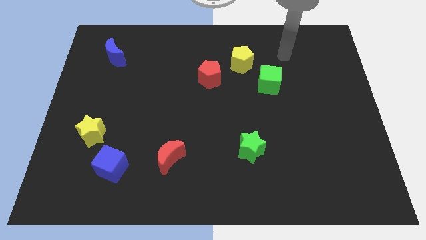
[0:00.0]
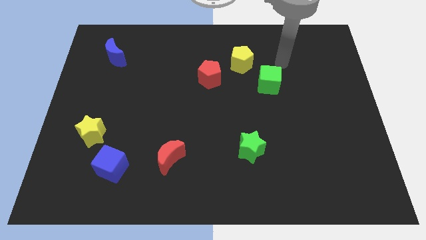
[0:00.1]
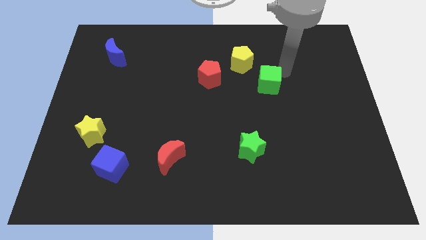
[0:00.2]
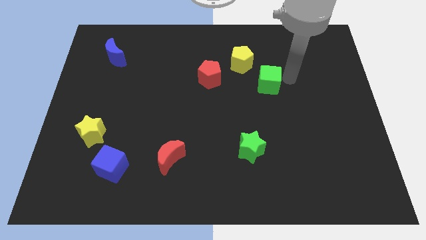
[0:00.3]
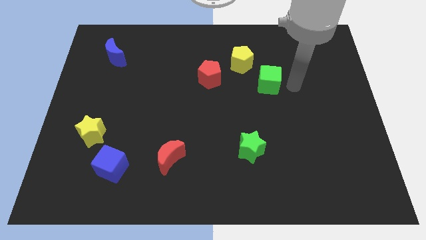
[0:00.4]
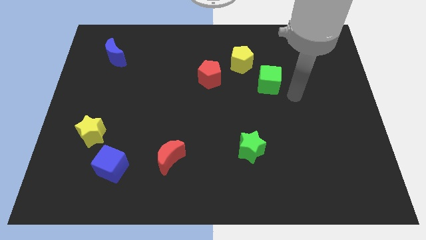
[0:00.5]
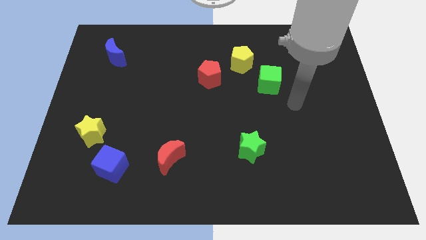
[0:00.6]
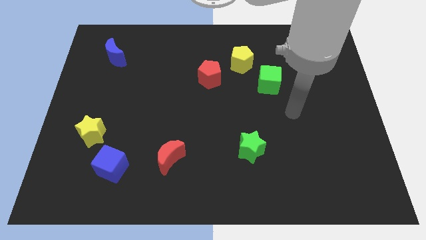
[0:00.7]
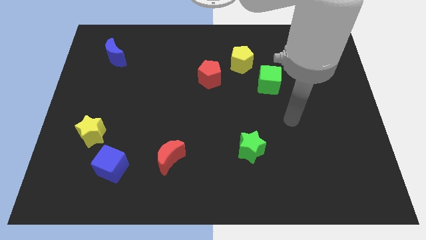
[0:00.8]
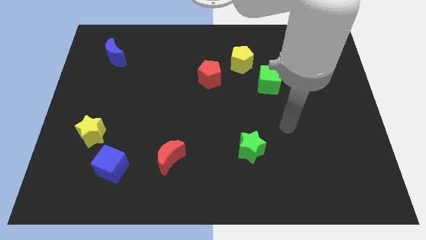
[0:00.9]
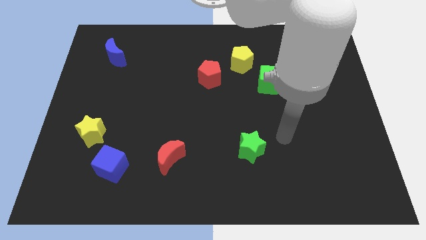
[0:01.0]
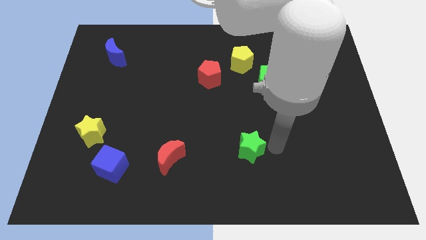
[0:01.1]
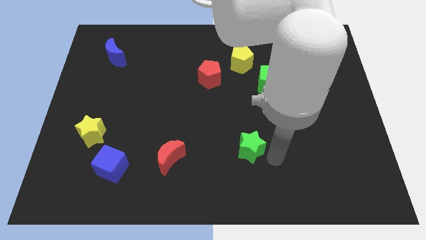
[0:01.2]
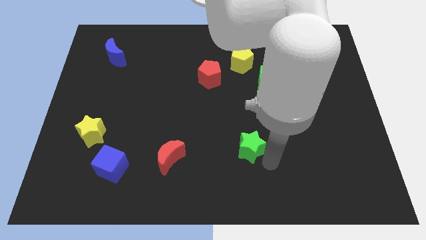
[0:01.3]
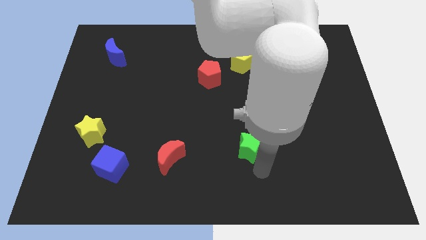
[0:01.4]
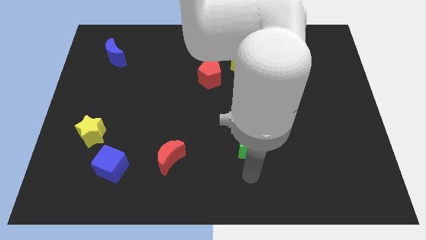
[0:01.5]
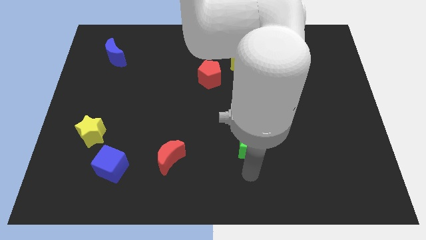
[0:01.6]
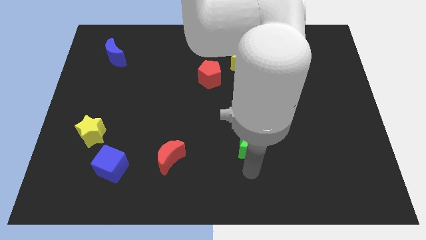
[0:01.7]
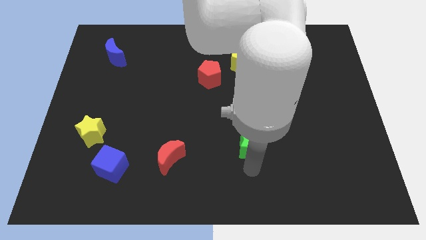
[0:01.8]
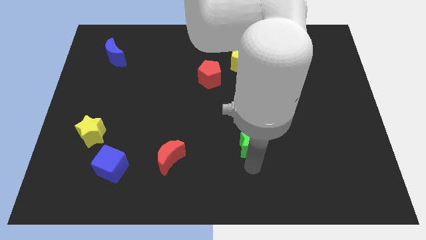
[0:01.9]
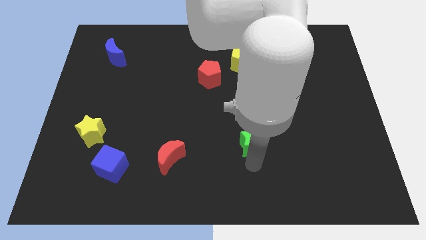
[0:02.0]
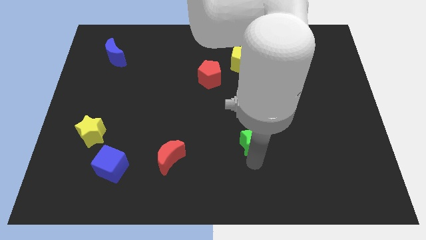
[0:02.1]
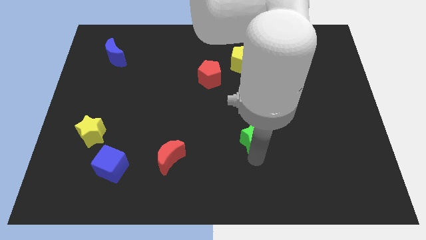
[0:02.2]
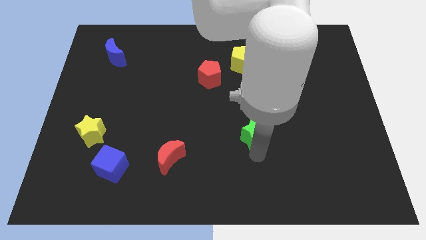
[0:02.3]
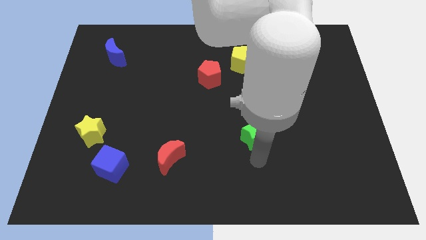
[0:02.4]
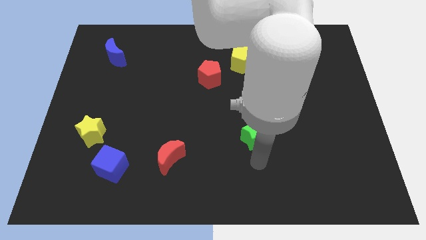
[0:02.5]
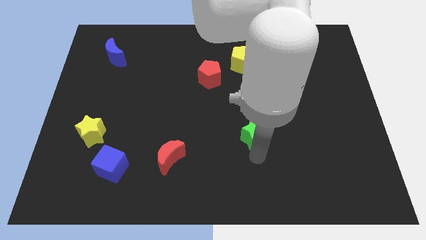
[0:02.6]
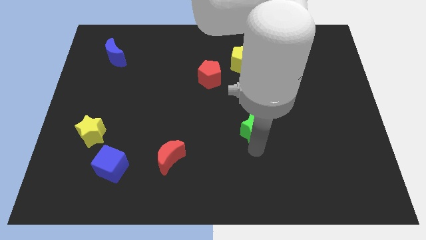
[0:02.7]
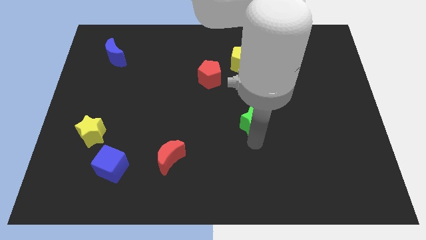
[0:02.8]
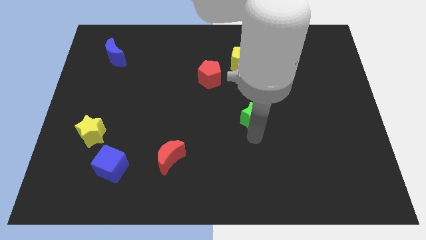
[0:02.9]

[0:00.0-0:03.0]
slide the green star slightly upwards

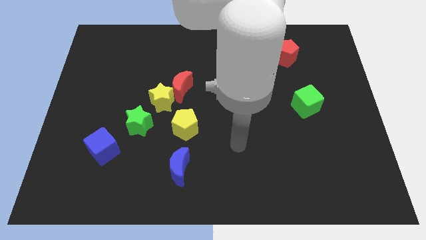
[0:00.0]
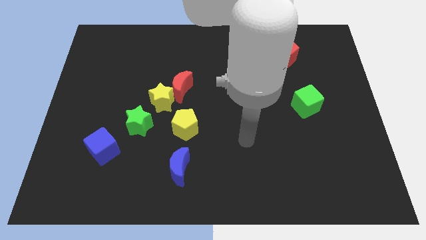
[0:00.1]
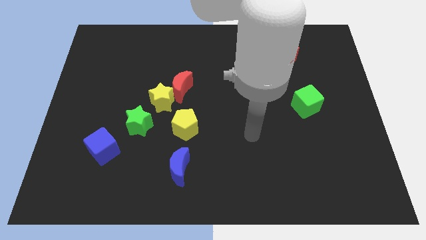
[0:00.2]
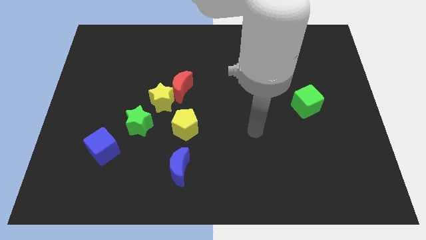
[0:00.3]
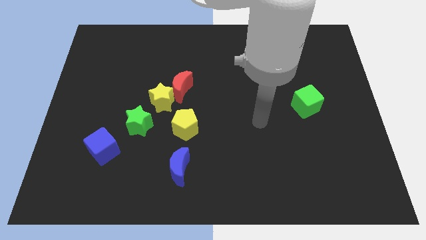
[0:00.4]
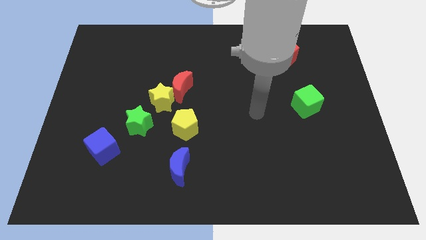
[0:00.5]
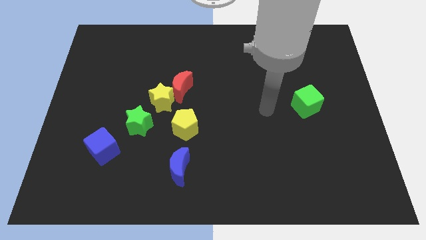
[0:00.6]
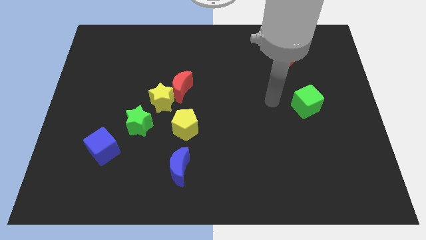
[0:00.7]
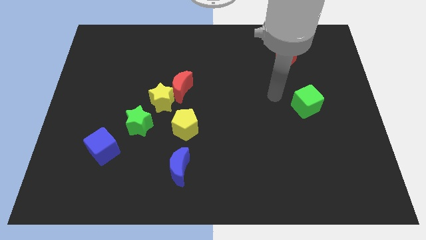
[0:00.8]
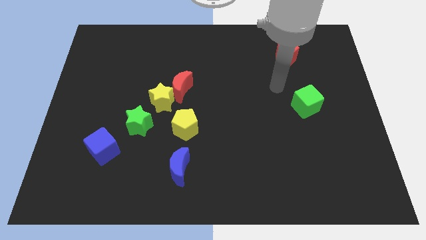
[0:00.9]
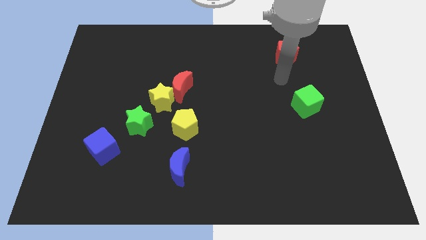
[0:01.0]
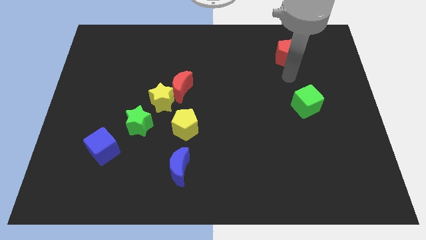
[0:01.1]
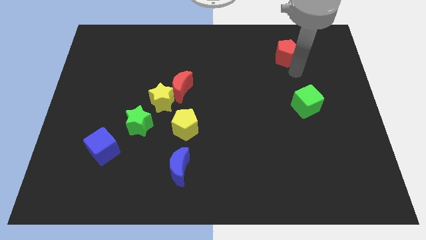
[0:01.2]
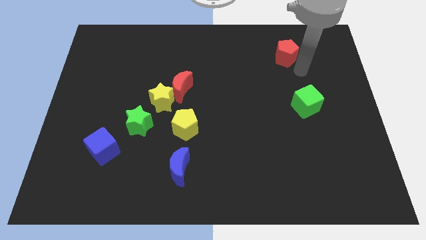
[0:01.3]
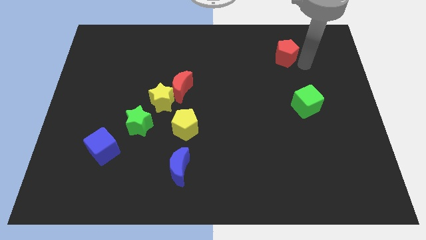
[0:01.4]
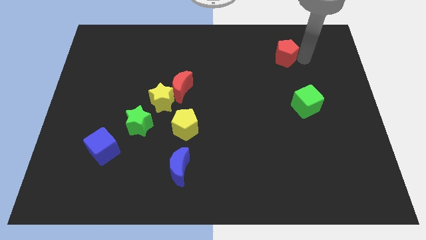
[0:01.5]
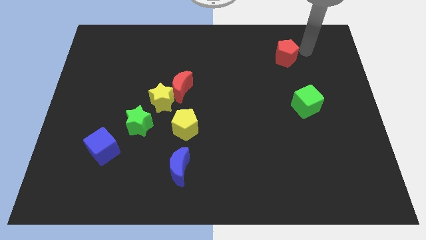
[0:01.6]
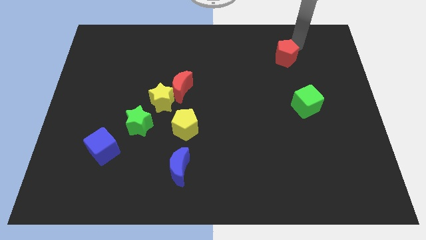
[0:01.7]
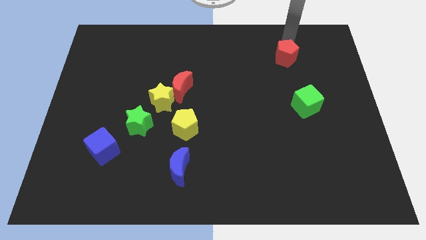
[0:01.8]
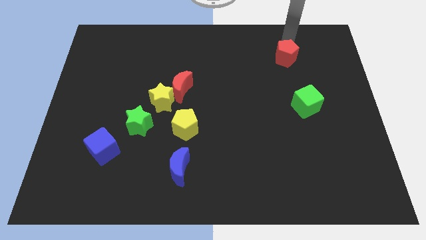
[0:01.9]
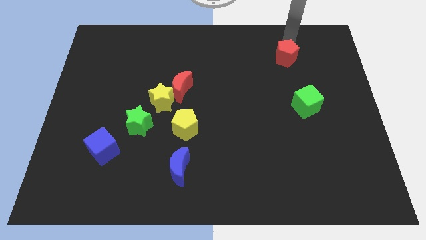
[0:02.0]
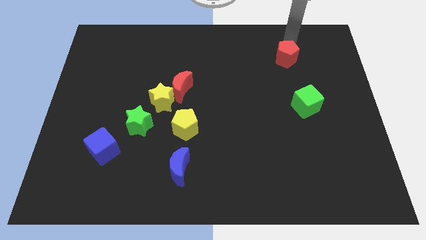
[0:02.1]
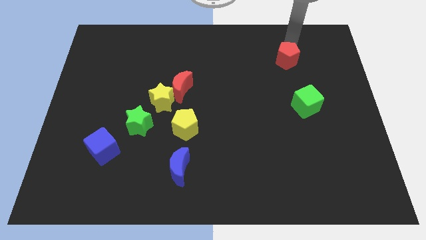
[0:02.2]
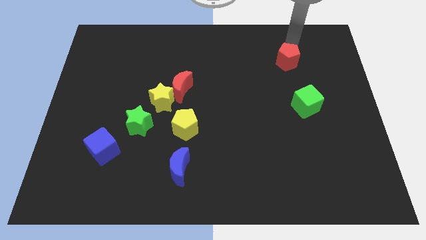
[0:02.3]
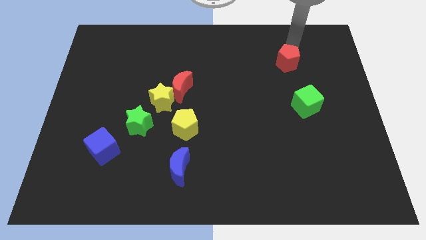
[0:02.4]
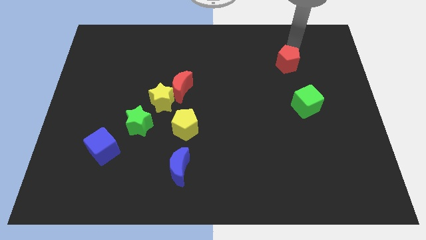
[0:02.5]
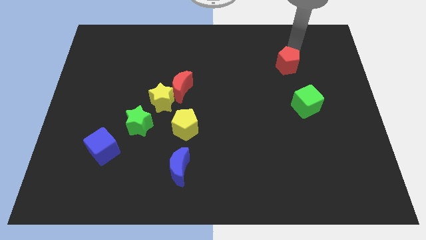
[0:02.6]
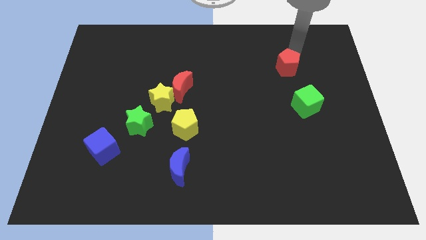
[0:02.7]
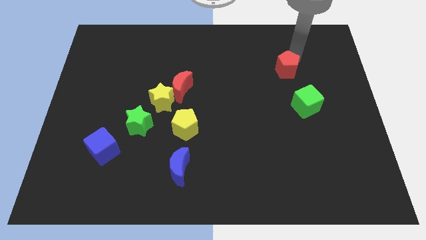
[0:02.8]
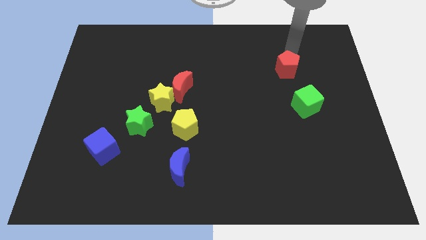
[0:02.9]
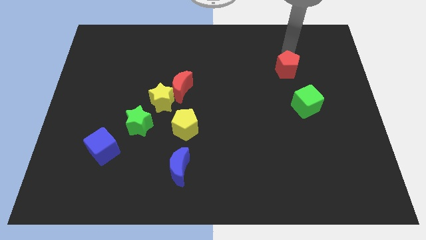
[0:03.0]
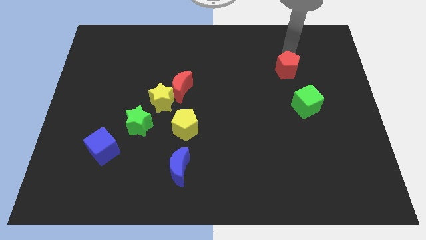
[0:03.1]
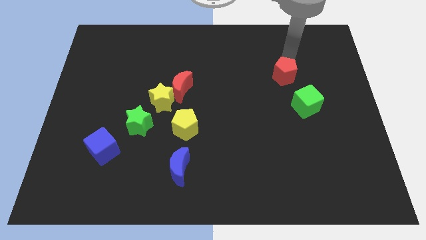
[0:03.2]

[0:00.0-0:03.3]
slide the red pentagon downwards a little

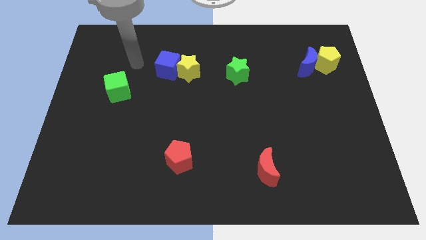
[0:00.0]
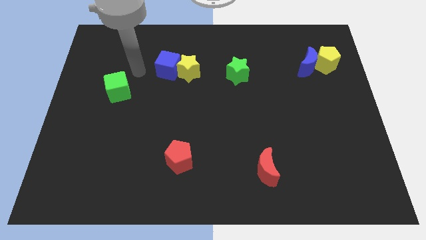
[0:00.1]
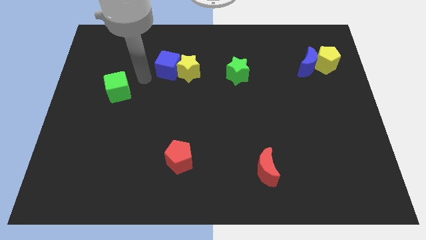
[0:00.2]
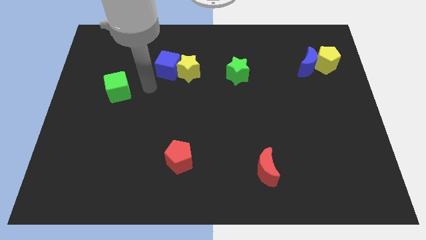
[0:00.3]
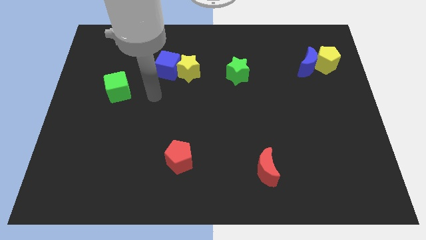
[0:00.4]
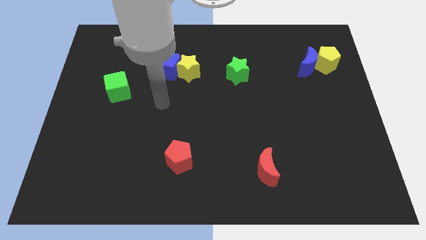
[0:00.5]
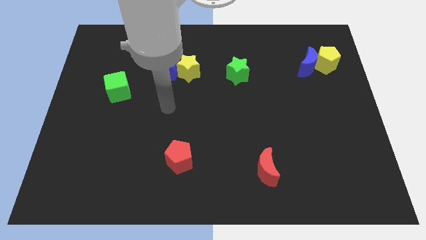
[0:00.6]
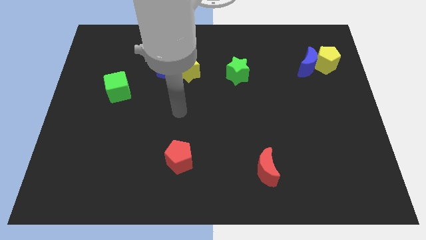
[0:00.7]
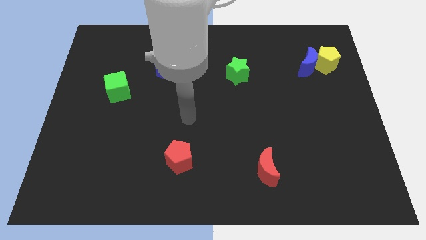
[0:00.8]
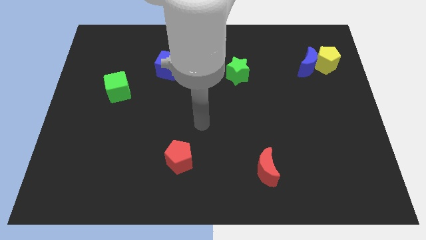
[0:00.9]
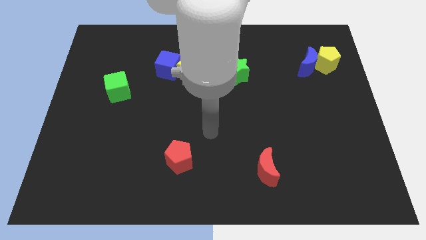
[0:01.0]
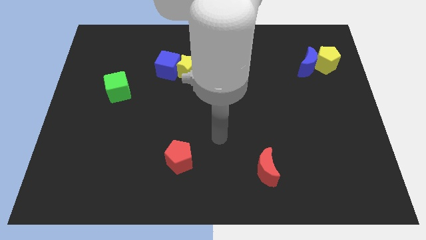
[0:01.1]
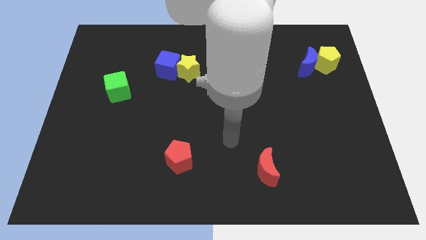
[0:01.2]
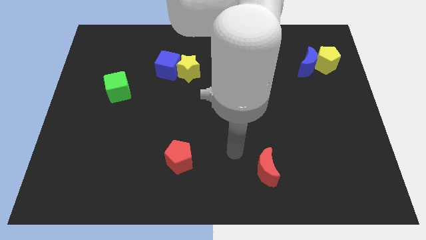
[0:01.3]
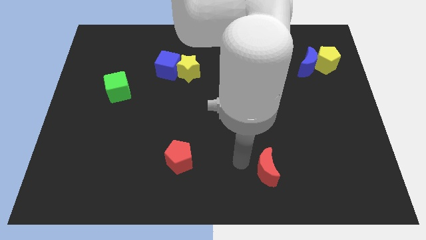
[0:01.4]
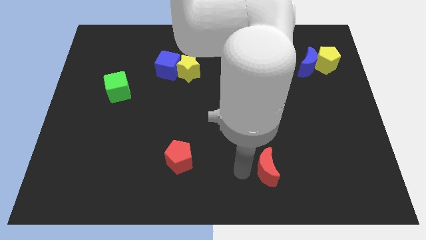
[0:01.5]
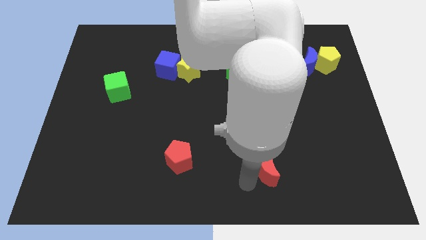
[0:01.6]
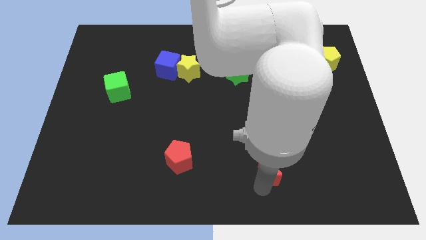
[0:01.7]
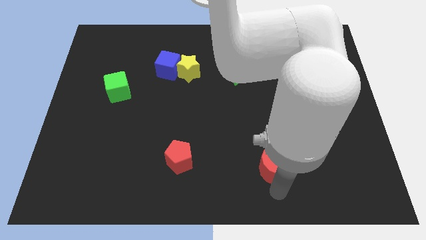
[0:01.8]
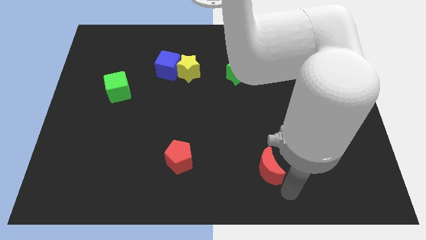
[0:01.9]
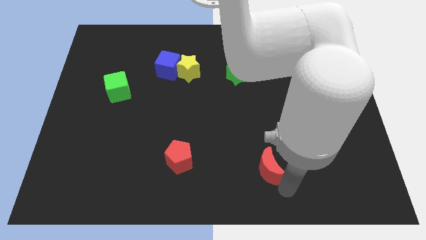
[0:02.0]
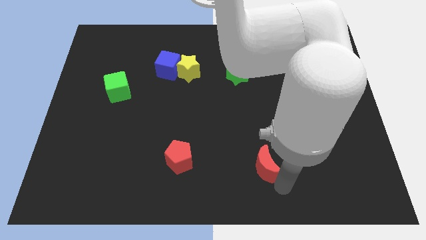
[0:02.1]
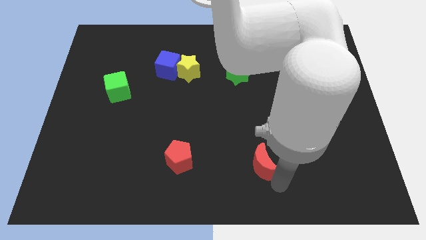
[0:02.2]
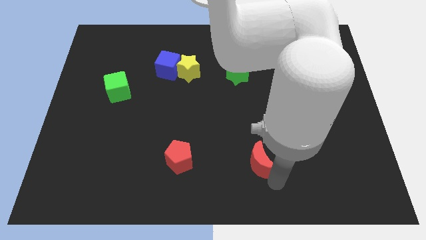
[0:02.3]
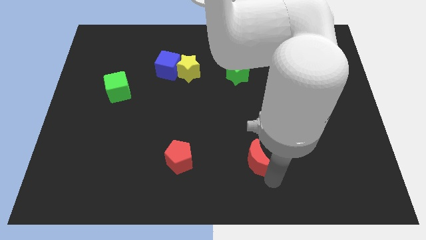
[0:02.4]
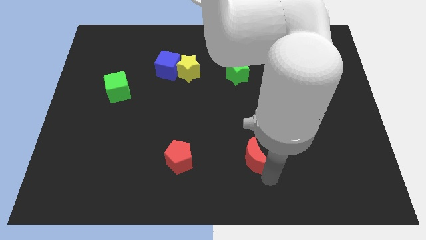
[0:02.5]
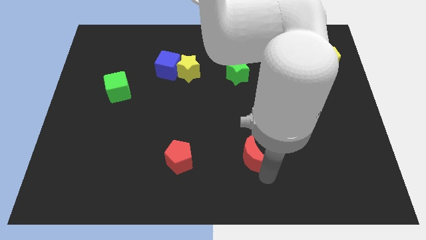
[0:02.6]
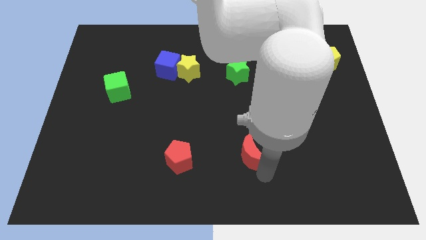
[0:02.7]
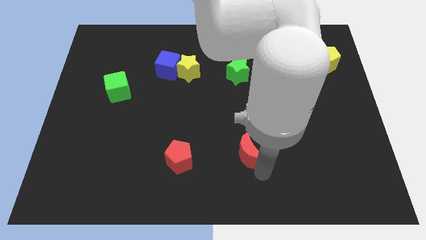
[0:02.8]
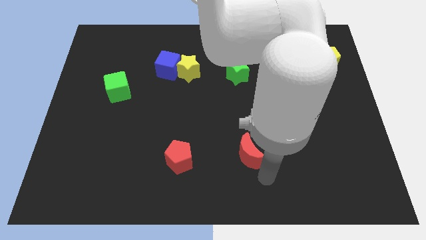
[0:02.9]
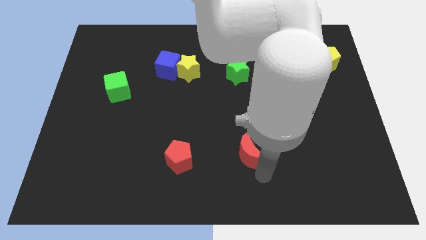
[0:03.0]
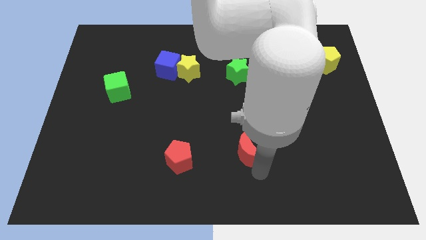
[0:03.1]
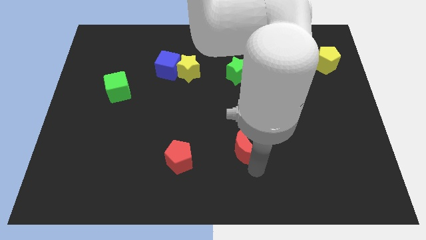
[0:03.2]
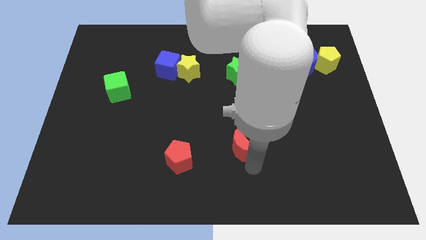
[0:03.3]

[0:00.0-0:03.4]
slide the red moon slightly up and left
